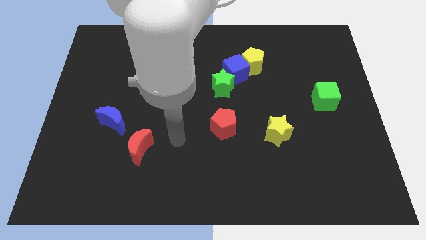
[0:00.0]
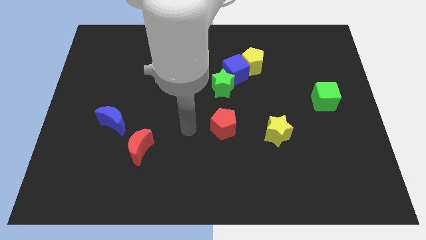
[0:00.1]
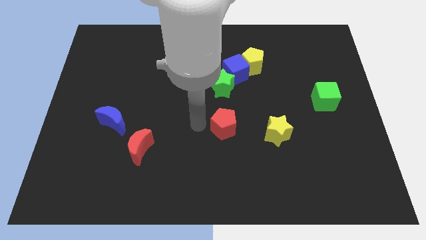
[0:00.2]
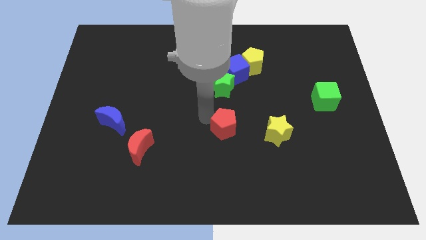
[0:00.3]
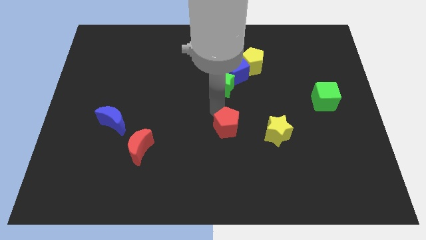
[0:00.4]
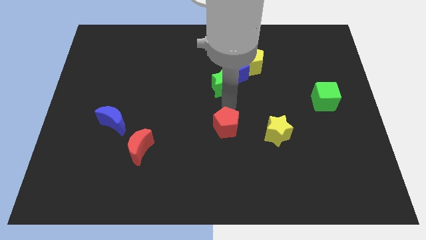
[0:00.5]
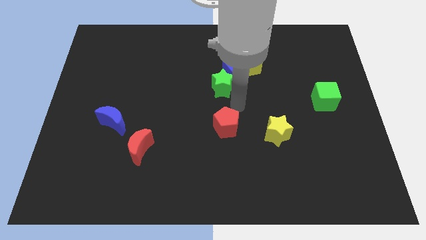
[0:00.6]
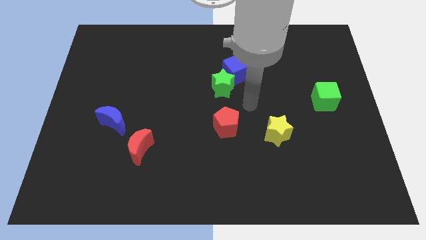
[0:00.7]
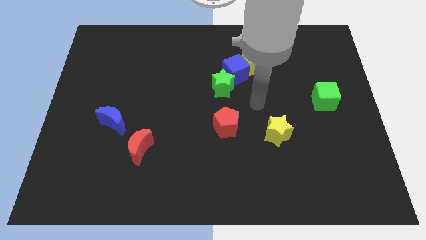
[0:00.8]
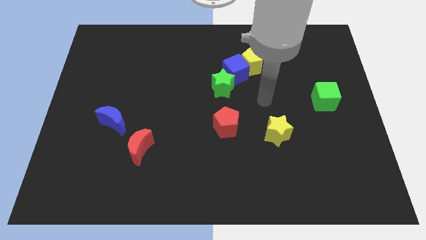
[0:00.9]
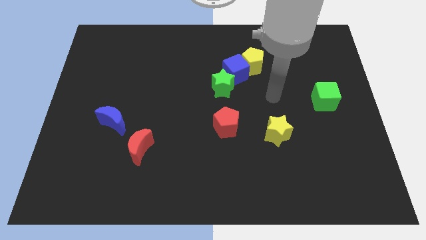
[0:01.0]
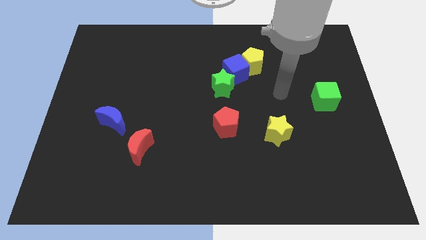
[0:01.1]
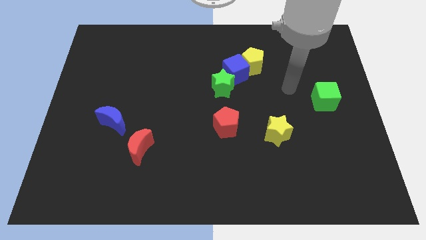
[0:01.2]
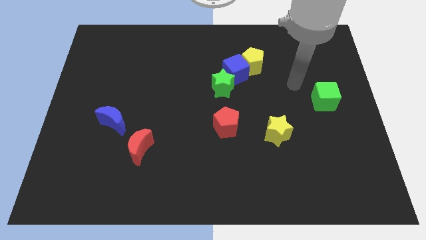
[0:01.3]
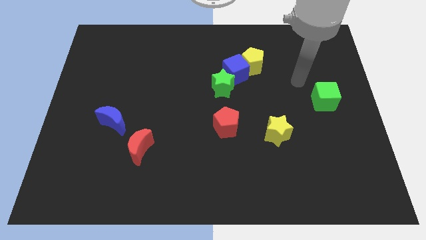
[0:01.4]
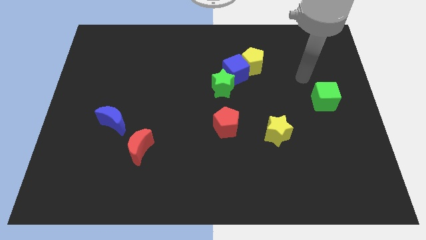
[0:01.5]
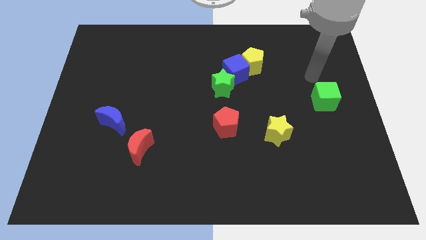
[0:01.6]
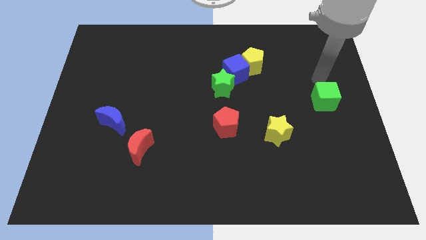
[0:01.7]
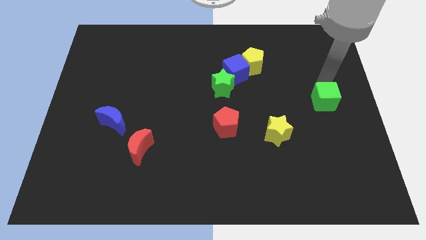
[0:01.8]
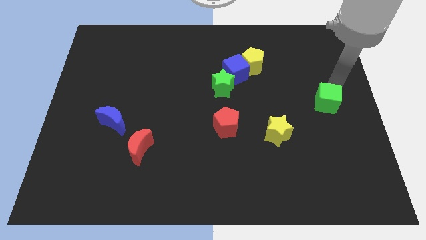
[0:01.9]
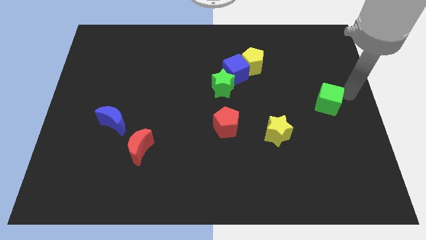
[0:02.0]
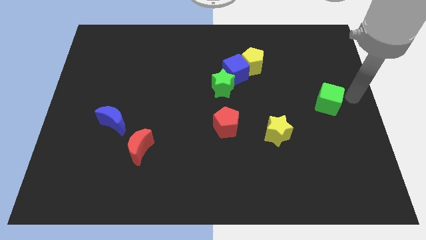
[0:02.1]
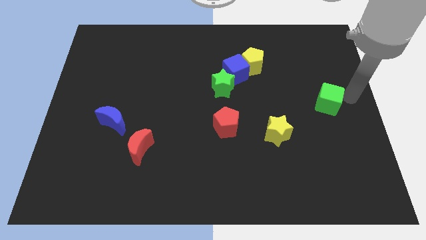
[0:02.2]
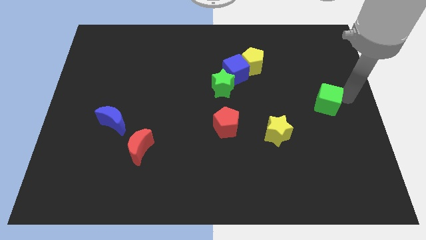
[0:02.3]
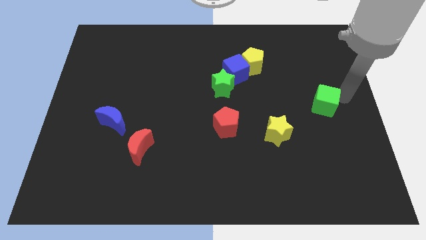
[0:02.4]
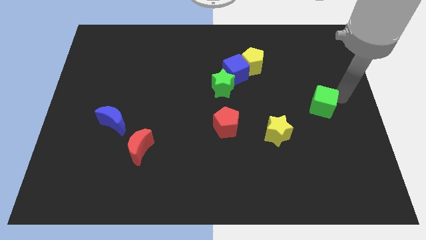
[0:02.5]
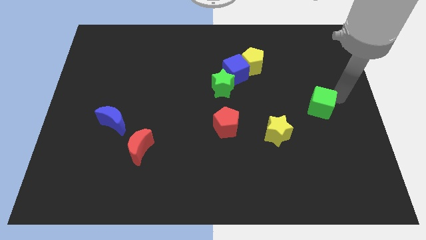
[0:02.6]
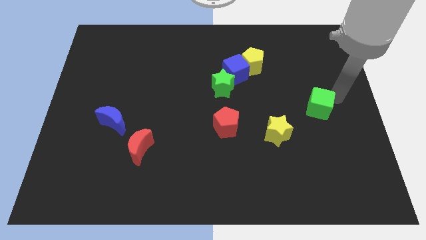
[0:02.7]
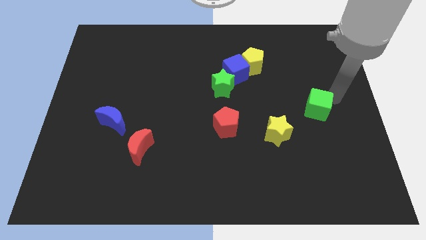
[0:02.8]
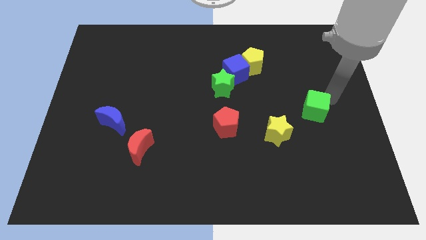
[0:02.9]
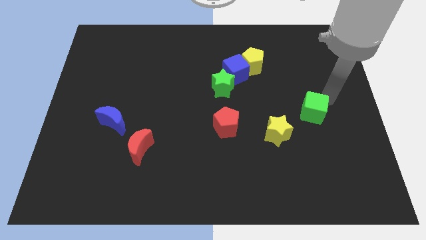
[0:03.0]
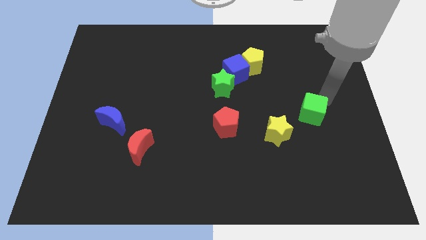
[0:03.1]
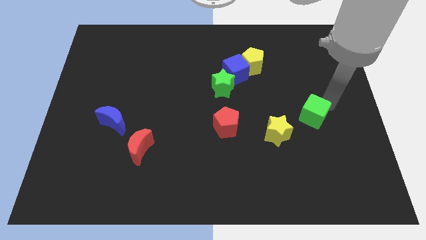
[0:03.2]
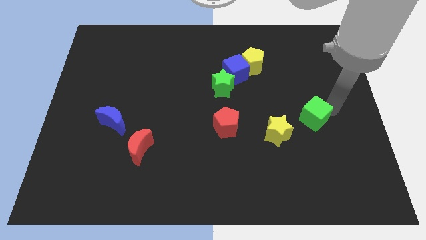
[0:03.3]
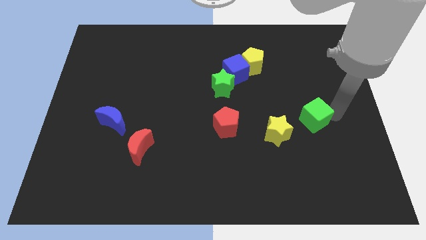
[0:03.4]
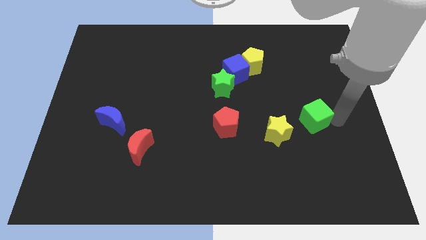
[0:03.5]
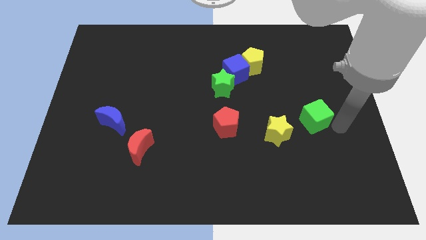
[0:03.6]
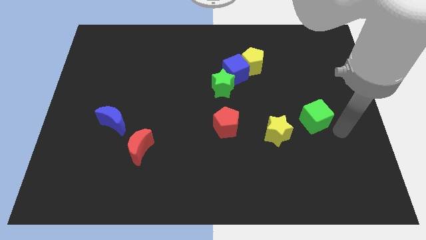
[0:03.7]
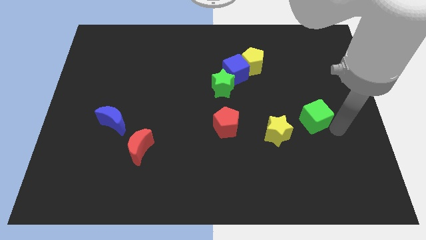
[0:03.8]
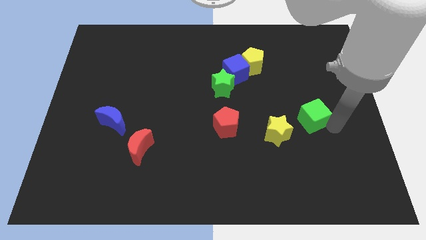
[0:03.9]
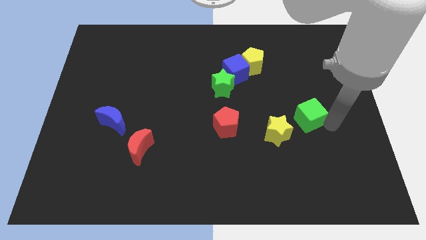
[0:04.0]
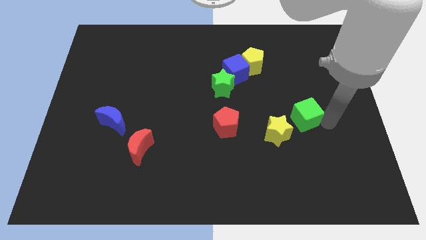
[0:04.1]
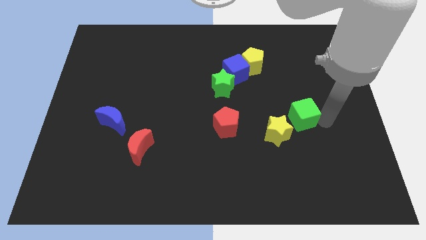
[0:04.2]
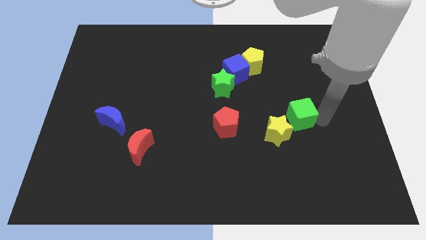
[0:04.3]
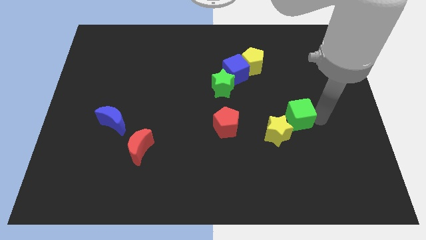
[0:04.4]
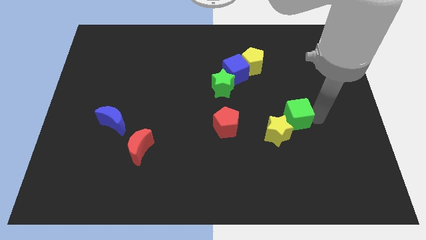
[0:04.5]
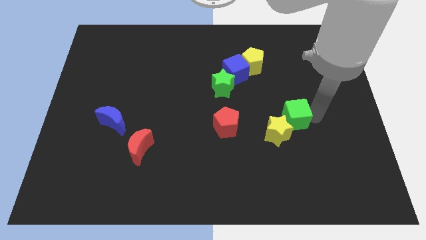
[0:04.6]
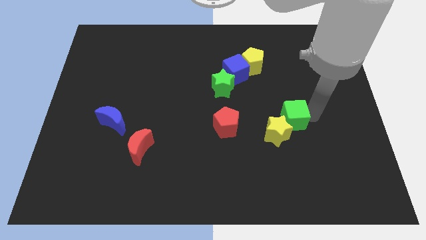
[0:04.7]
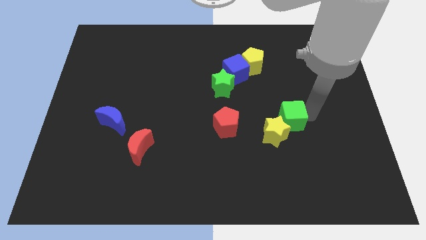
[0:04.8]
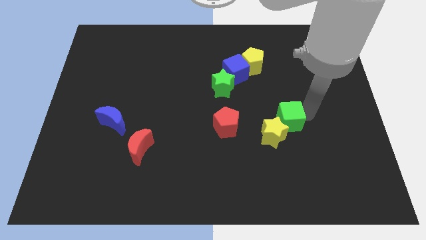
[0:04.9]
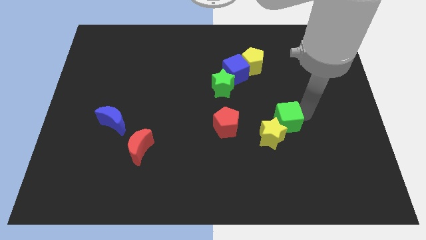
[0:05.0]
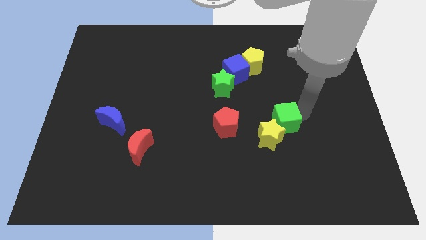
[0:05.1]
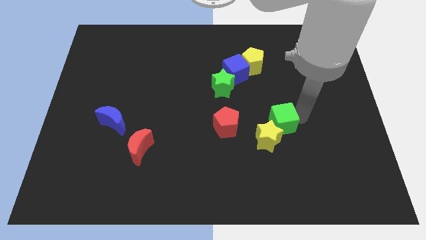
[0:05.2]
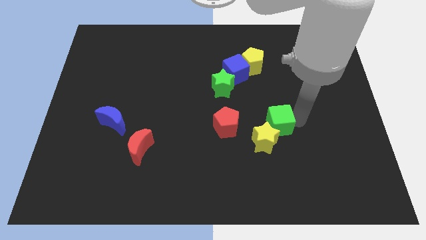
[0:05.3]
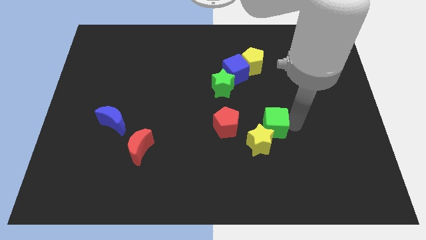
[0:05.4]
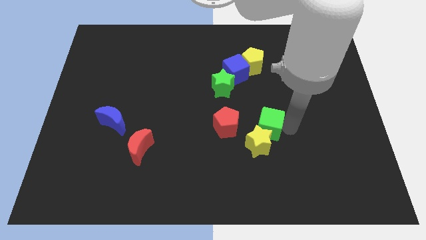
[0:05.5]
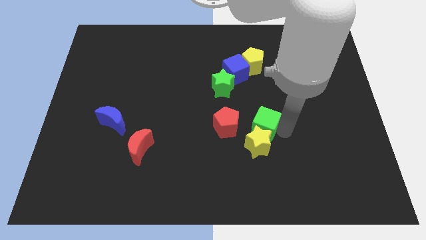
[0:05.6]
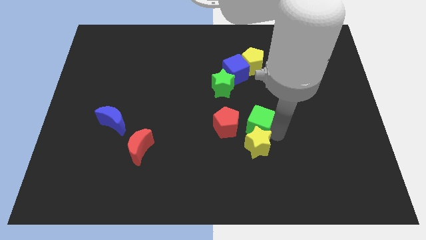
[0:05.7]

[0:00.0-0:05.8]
slide the green cube to the center

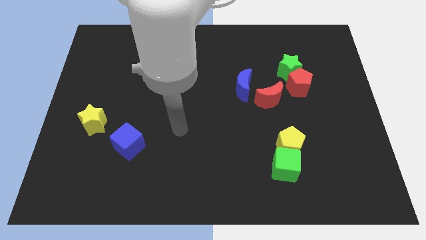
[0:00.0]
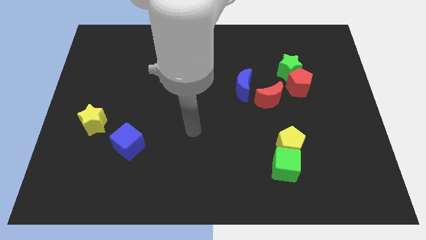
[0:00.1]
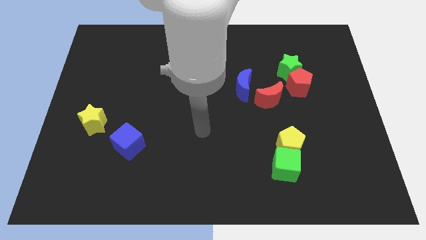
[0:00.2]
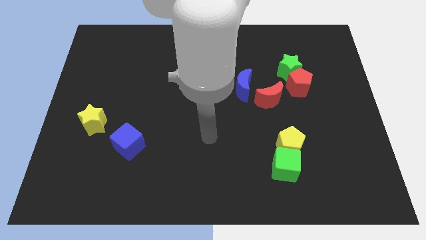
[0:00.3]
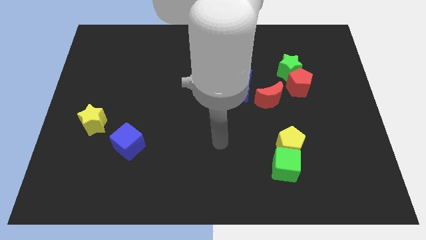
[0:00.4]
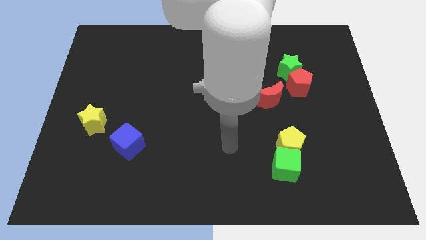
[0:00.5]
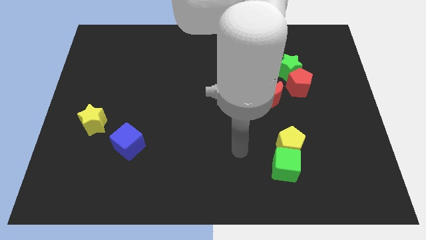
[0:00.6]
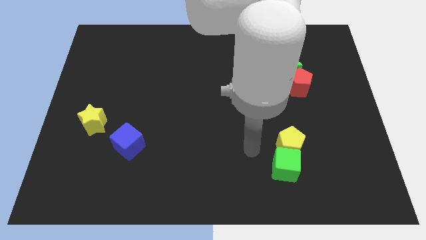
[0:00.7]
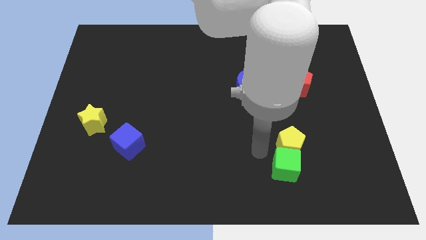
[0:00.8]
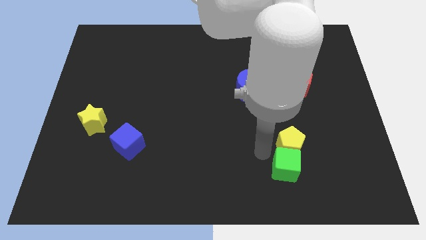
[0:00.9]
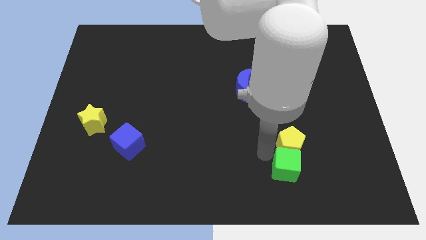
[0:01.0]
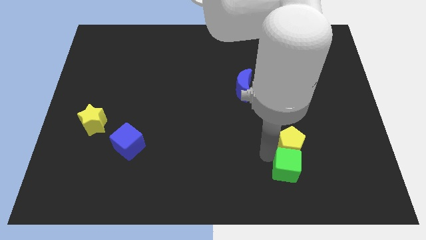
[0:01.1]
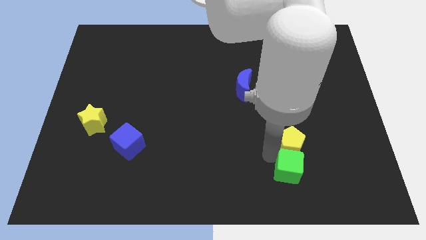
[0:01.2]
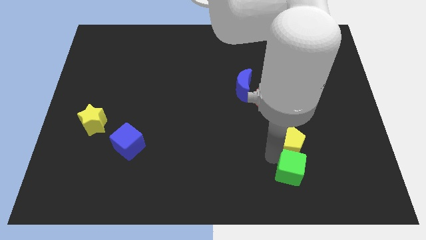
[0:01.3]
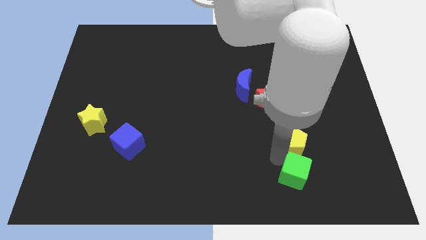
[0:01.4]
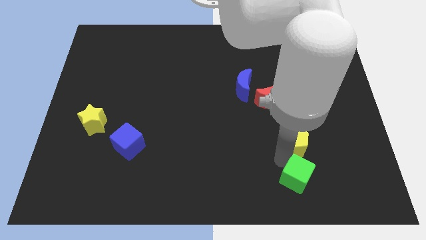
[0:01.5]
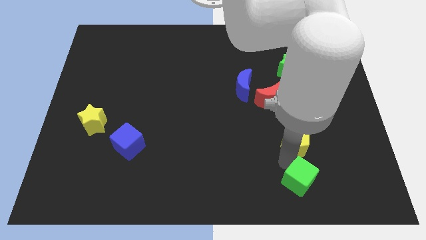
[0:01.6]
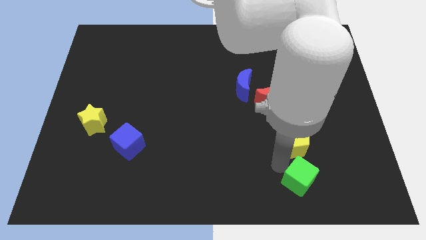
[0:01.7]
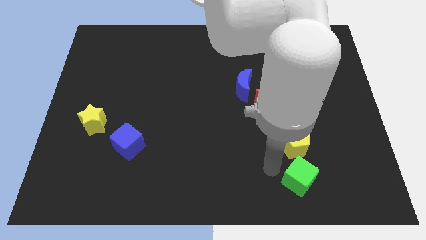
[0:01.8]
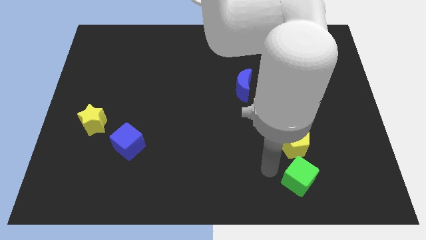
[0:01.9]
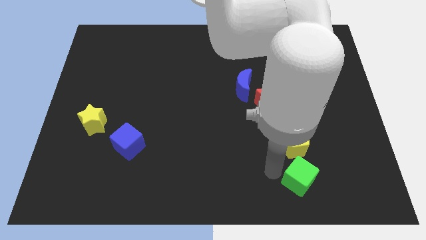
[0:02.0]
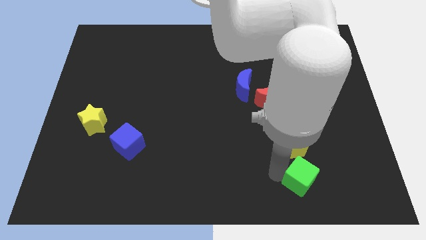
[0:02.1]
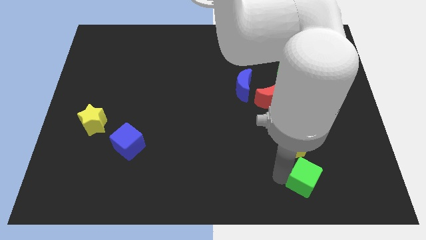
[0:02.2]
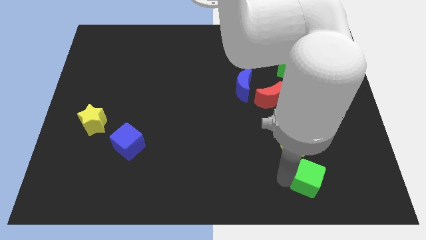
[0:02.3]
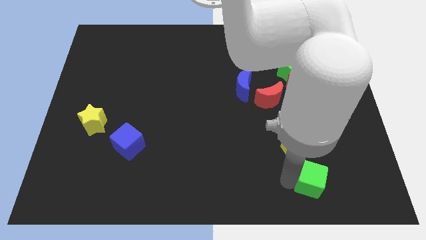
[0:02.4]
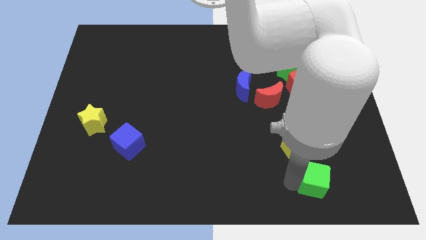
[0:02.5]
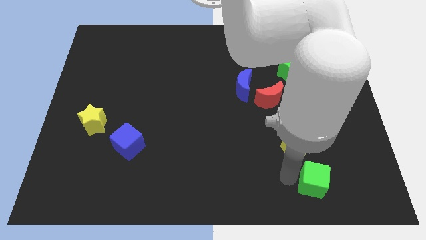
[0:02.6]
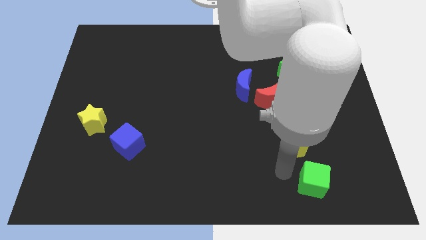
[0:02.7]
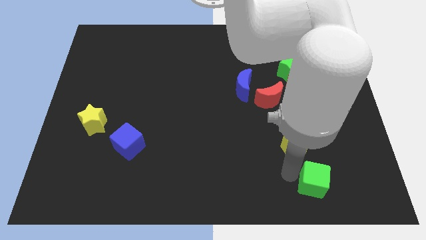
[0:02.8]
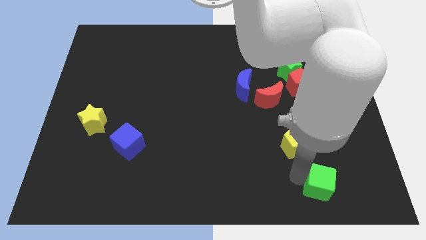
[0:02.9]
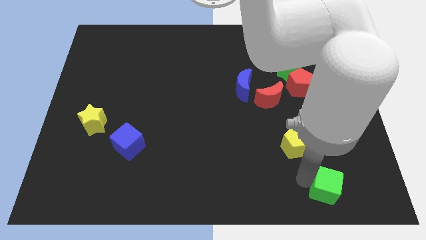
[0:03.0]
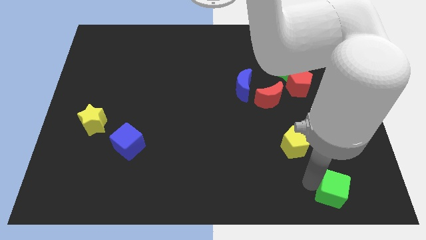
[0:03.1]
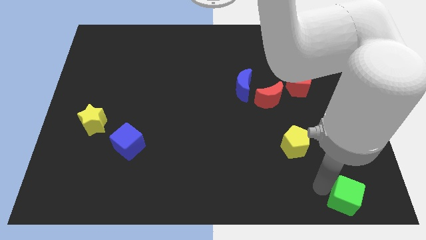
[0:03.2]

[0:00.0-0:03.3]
slide the green cube to the lower right corner
